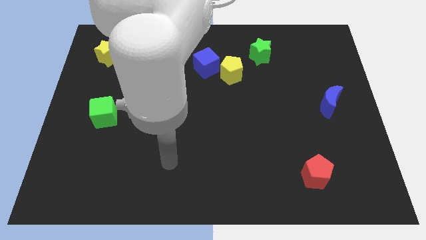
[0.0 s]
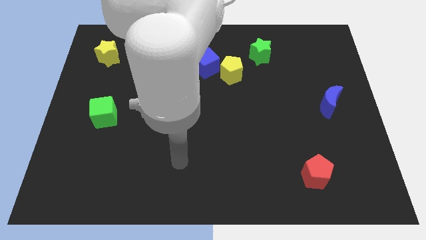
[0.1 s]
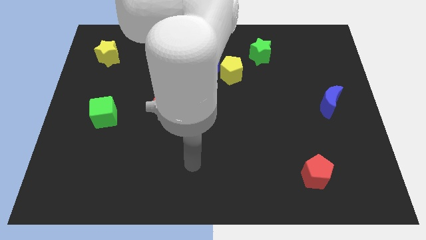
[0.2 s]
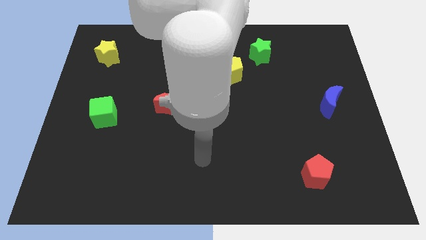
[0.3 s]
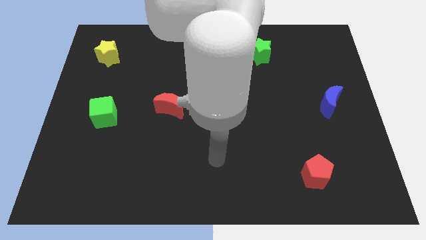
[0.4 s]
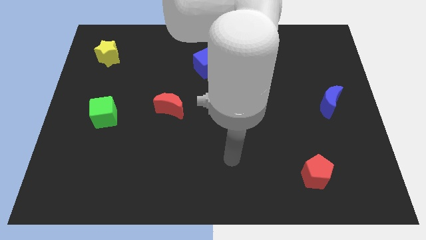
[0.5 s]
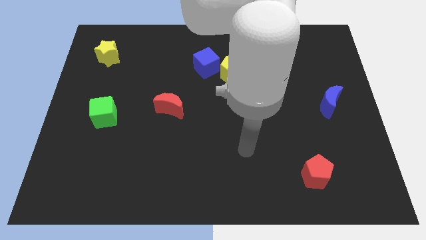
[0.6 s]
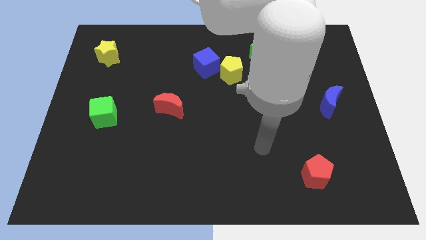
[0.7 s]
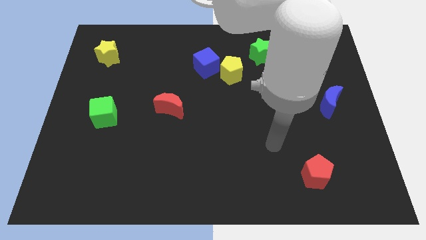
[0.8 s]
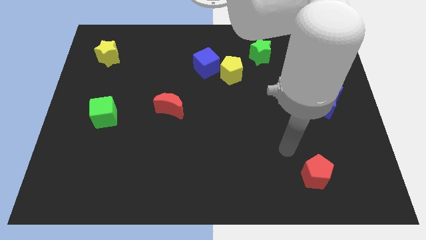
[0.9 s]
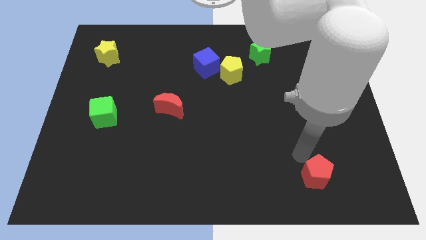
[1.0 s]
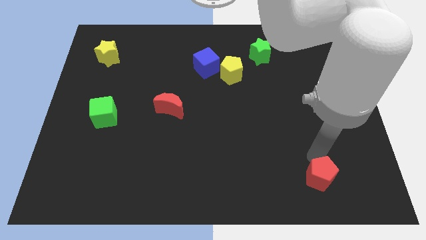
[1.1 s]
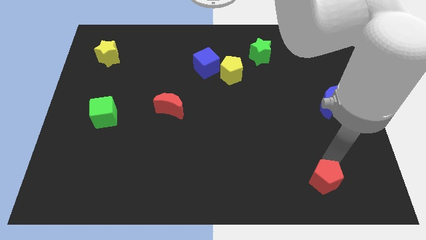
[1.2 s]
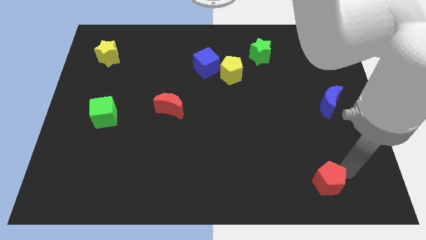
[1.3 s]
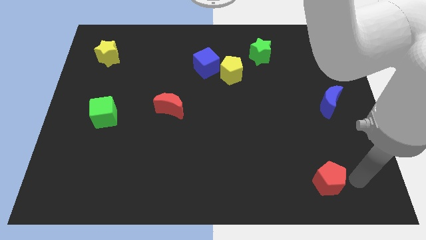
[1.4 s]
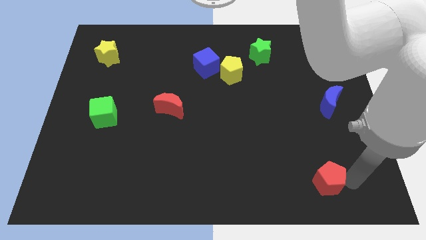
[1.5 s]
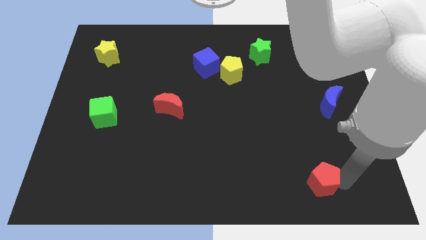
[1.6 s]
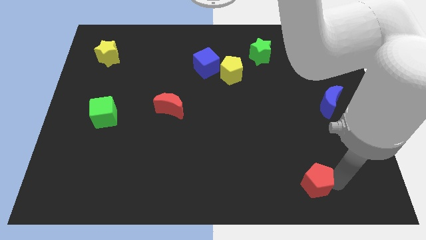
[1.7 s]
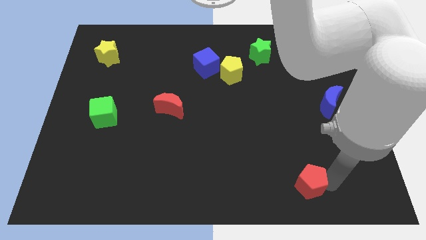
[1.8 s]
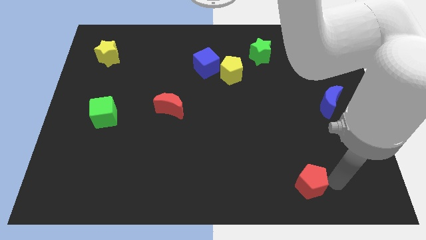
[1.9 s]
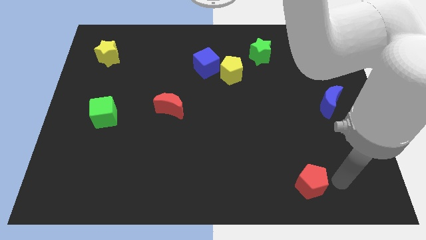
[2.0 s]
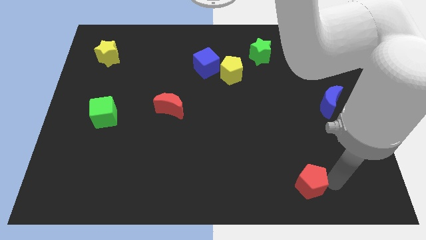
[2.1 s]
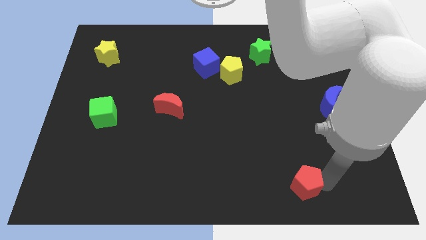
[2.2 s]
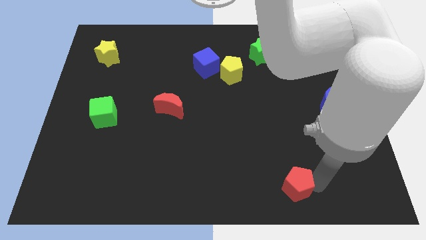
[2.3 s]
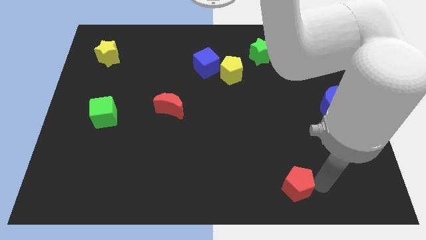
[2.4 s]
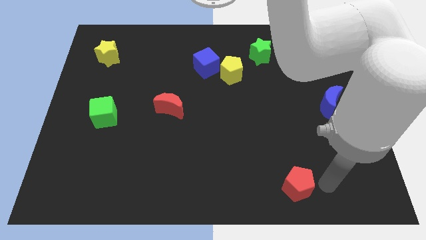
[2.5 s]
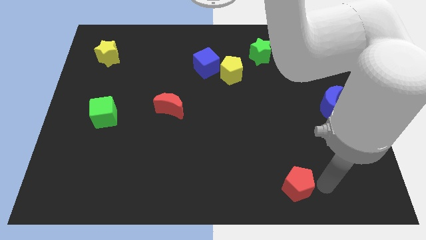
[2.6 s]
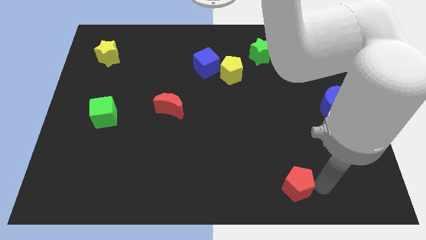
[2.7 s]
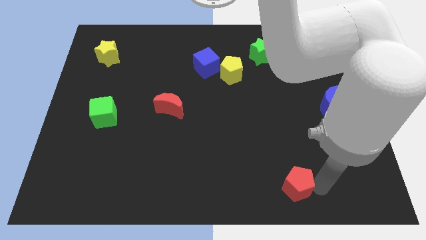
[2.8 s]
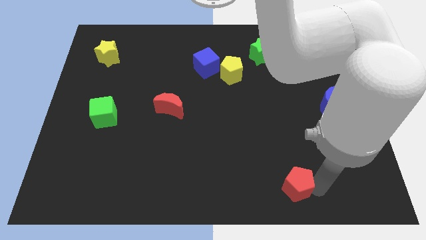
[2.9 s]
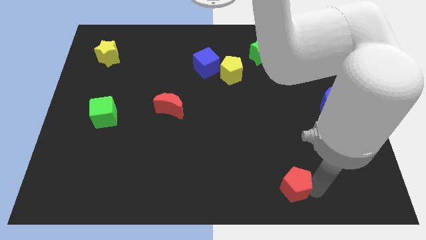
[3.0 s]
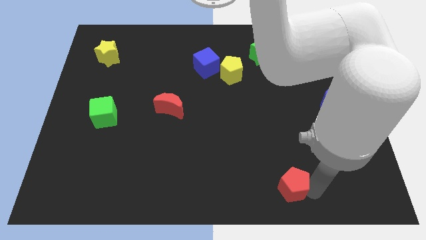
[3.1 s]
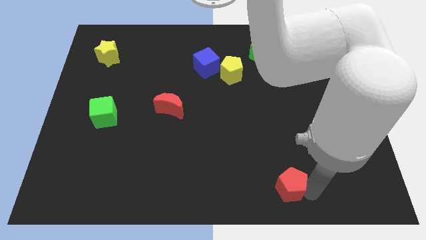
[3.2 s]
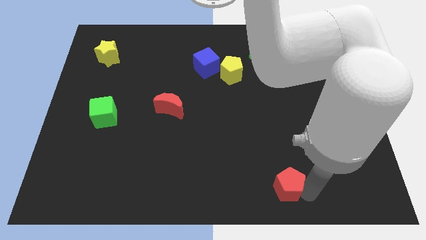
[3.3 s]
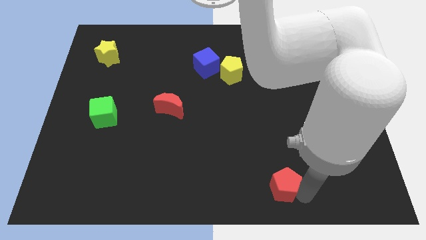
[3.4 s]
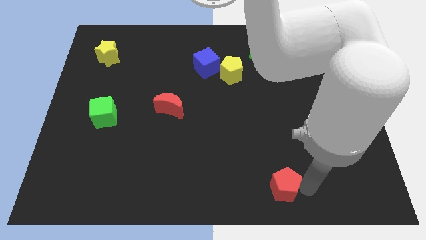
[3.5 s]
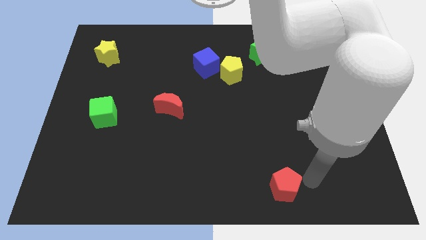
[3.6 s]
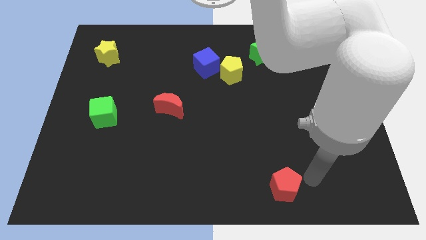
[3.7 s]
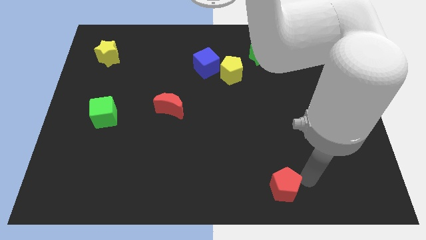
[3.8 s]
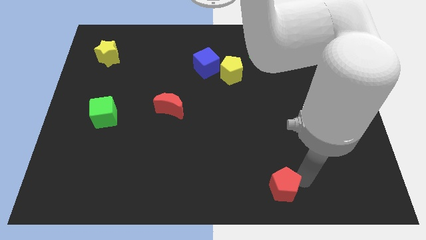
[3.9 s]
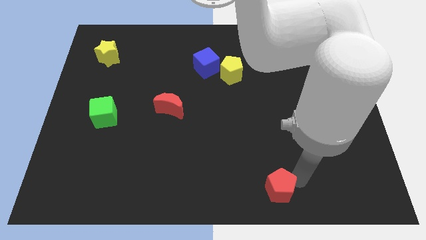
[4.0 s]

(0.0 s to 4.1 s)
put the red pentagon to the bottom side

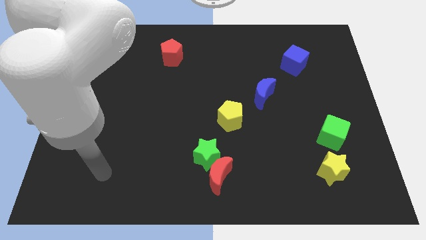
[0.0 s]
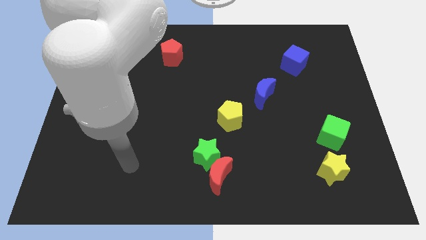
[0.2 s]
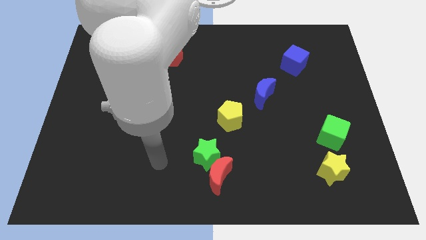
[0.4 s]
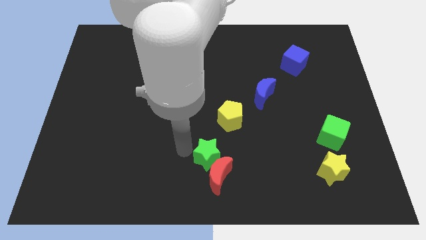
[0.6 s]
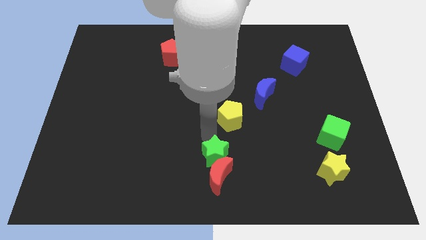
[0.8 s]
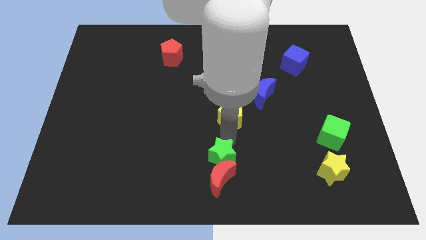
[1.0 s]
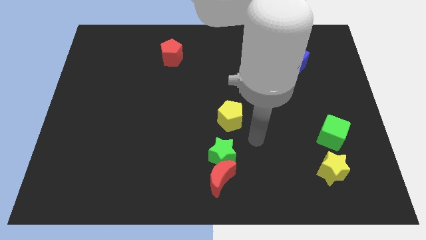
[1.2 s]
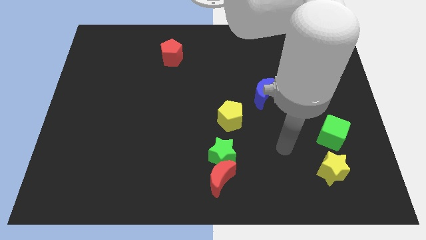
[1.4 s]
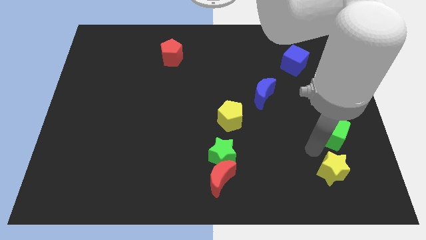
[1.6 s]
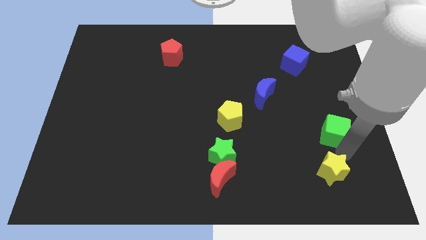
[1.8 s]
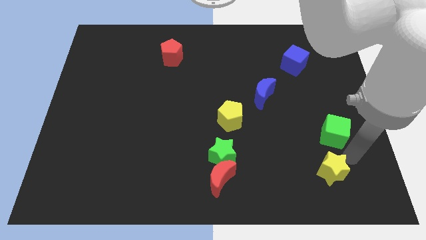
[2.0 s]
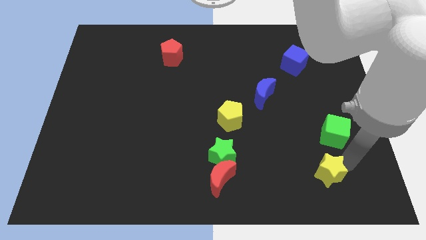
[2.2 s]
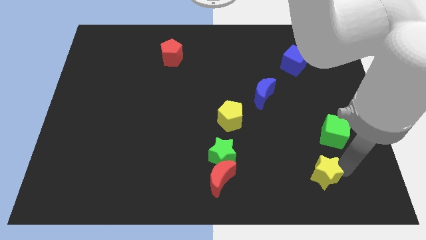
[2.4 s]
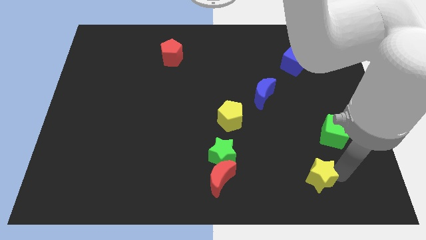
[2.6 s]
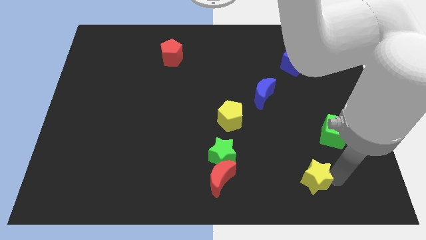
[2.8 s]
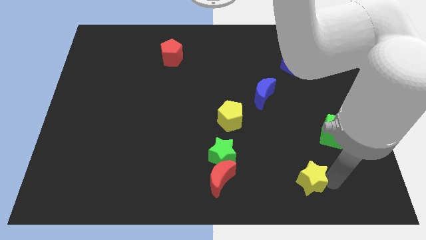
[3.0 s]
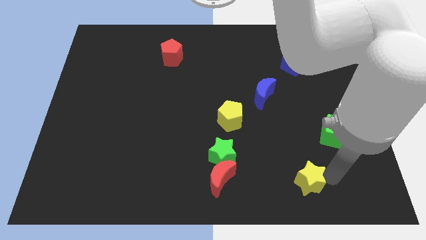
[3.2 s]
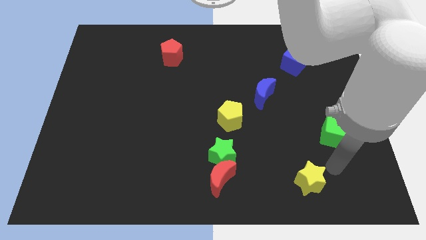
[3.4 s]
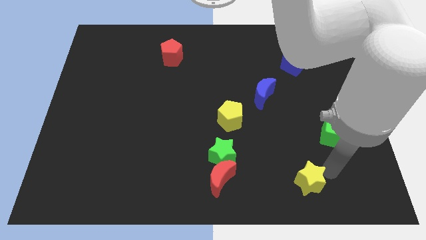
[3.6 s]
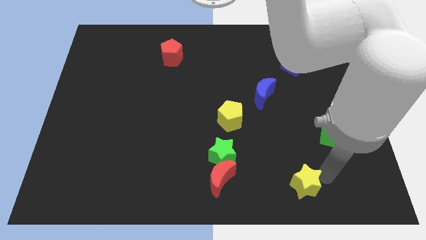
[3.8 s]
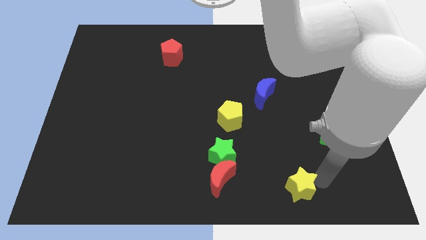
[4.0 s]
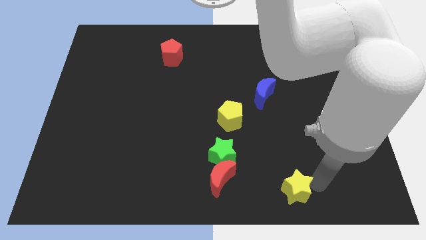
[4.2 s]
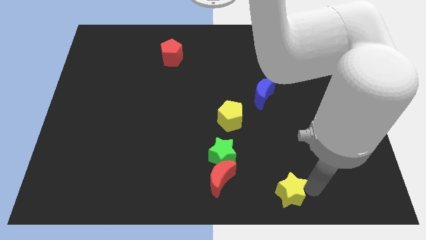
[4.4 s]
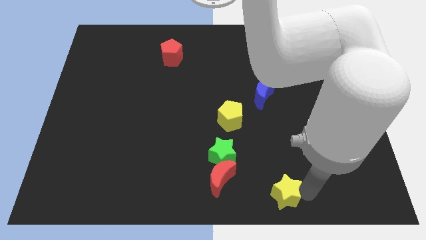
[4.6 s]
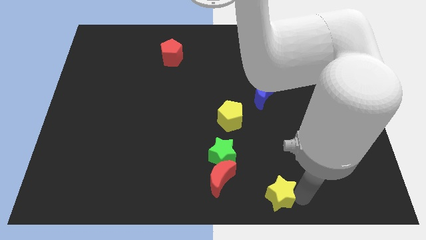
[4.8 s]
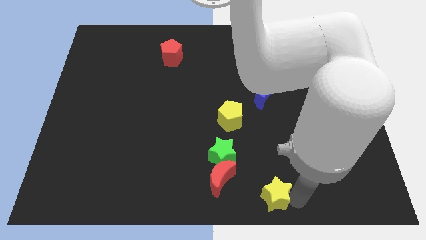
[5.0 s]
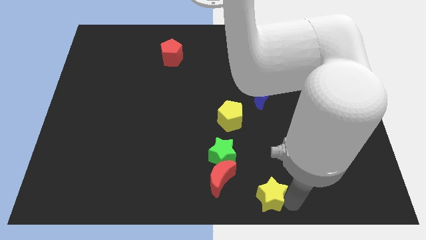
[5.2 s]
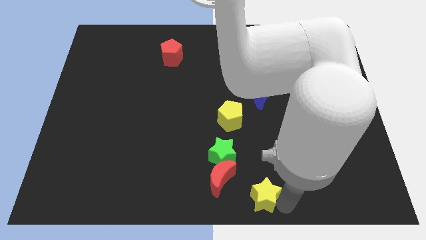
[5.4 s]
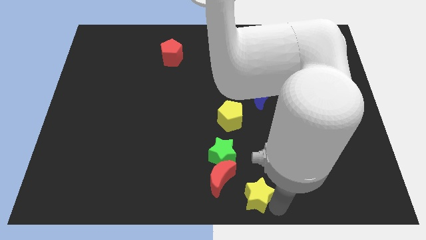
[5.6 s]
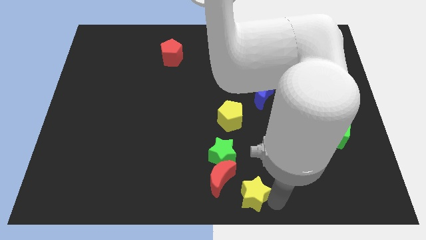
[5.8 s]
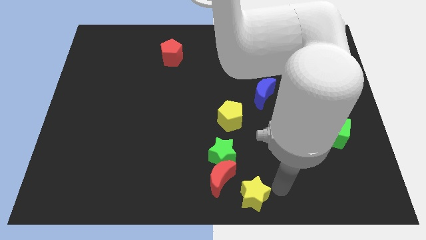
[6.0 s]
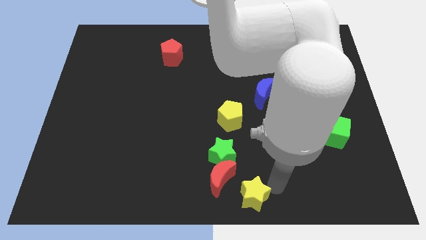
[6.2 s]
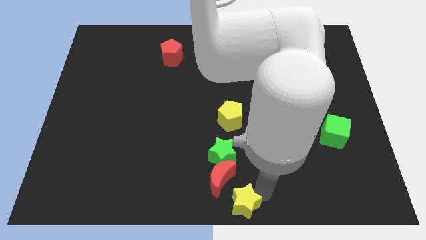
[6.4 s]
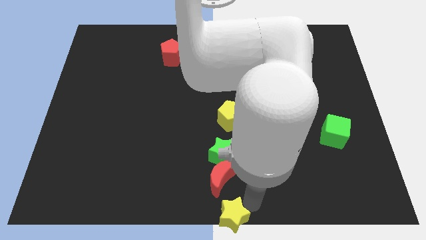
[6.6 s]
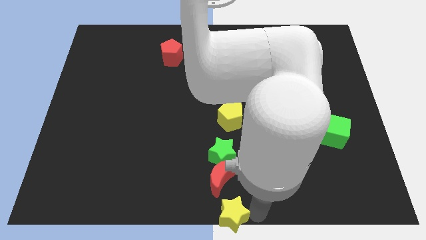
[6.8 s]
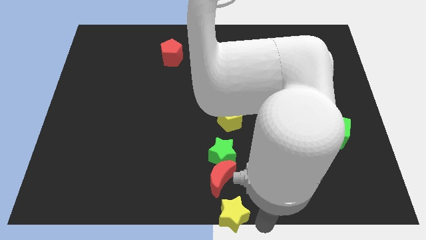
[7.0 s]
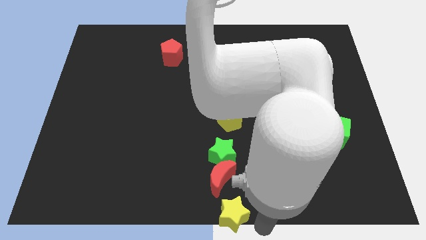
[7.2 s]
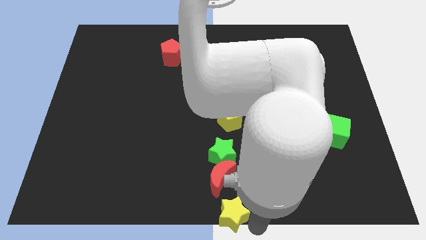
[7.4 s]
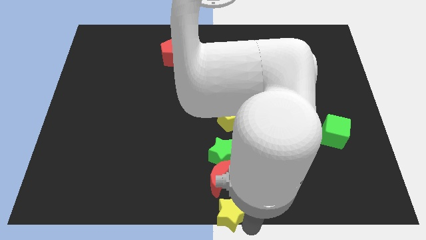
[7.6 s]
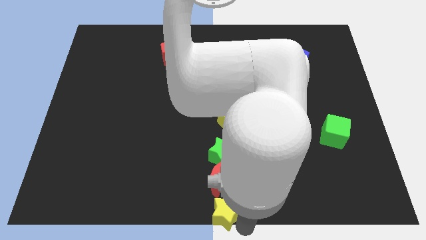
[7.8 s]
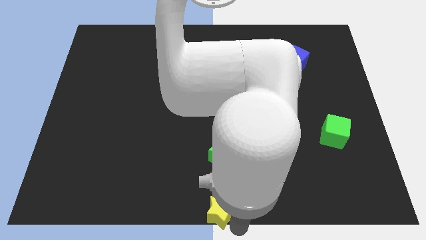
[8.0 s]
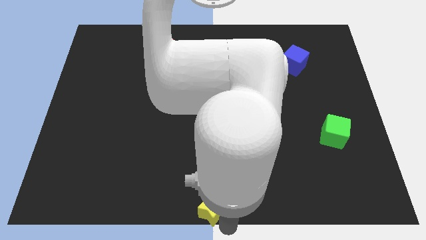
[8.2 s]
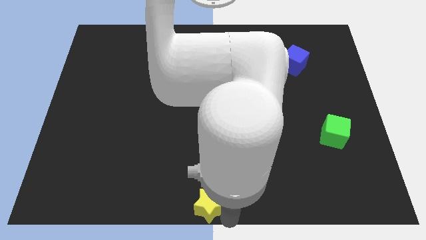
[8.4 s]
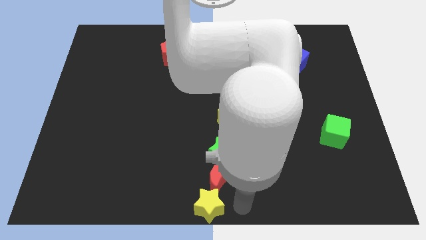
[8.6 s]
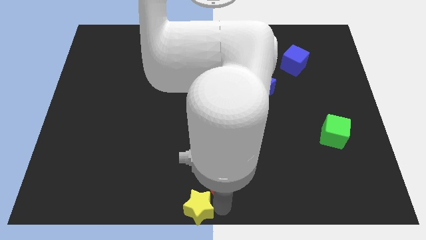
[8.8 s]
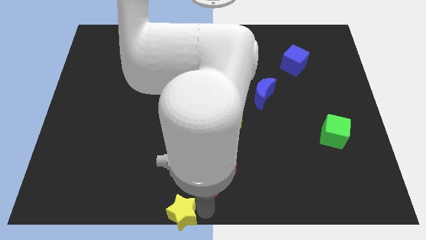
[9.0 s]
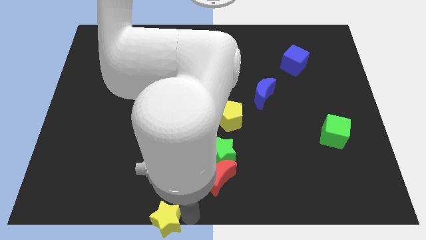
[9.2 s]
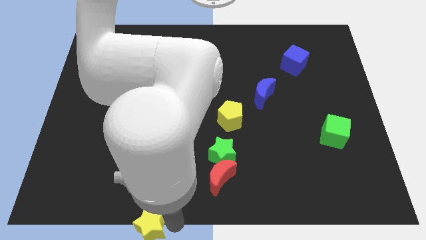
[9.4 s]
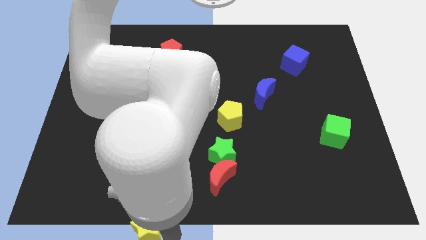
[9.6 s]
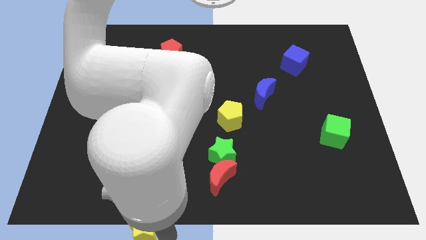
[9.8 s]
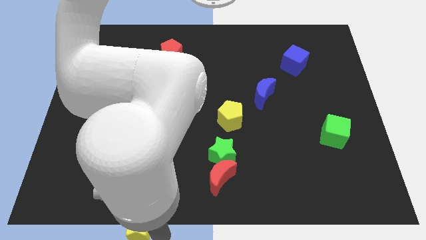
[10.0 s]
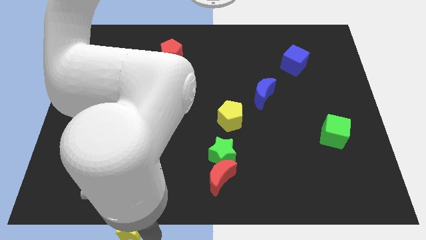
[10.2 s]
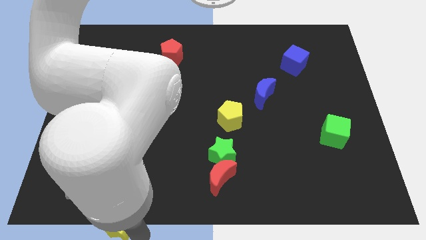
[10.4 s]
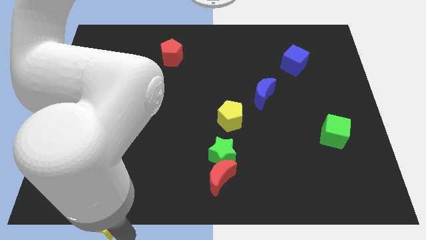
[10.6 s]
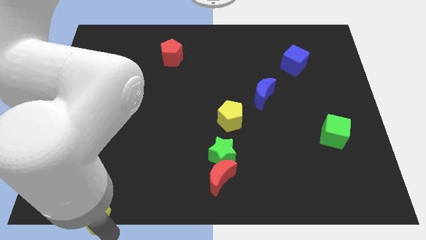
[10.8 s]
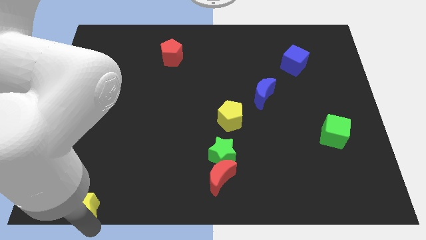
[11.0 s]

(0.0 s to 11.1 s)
slide the yellow star to the bottom left of the board
